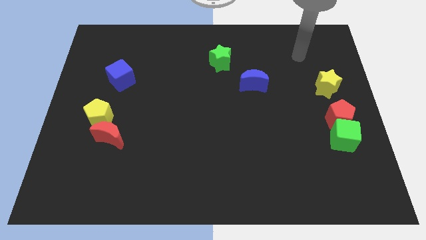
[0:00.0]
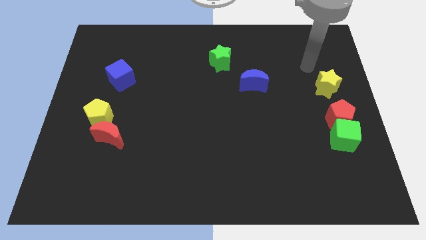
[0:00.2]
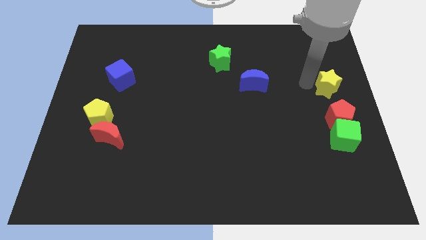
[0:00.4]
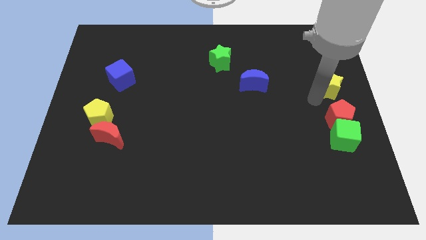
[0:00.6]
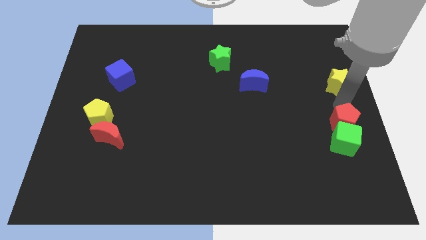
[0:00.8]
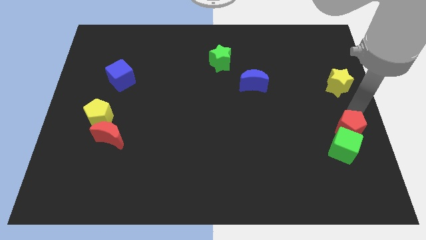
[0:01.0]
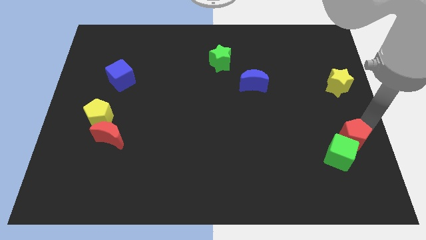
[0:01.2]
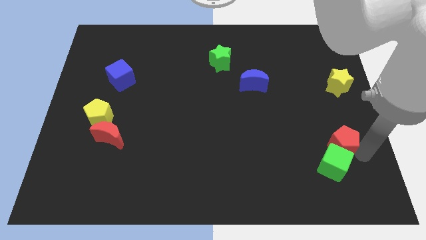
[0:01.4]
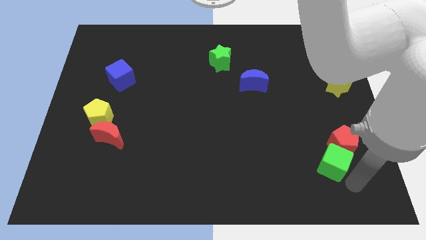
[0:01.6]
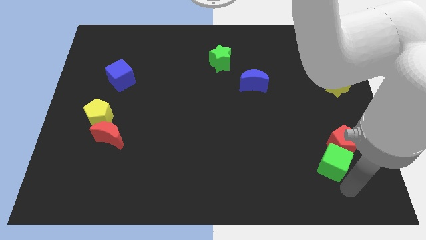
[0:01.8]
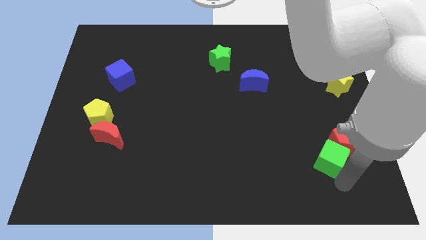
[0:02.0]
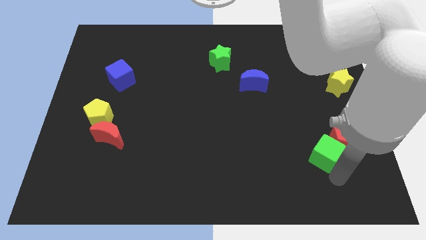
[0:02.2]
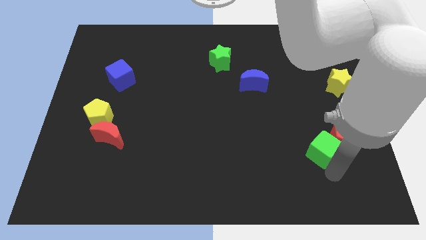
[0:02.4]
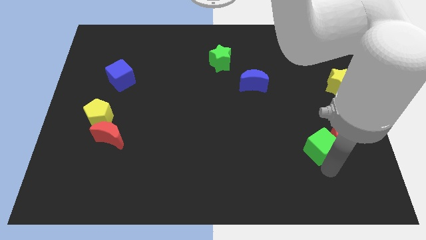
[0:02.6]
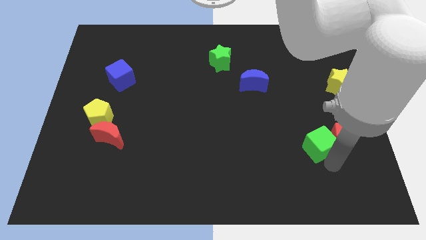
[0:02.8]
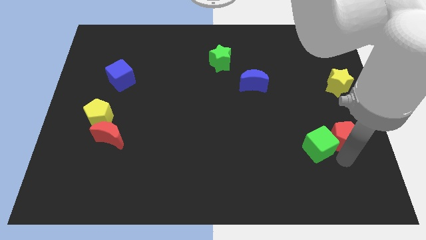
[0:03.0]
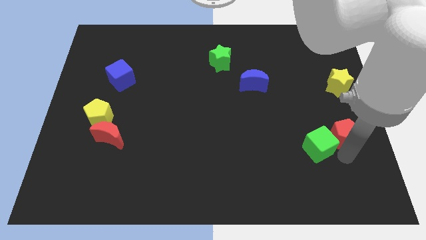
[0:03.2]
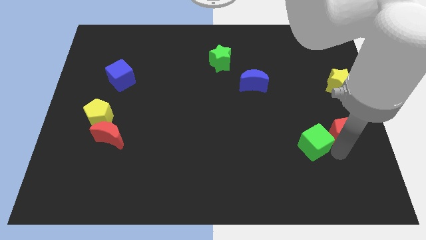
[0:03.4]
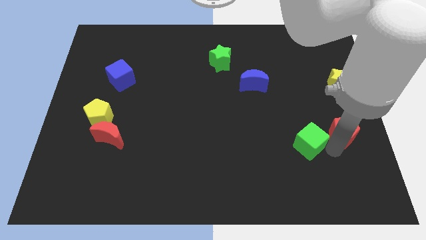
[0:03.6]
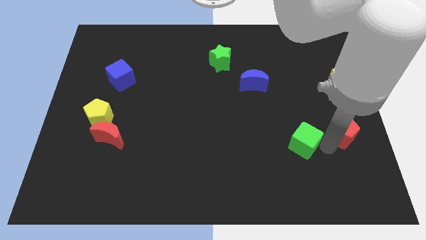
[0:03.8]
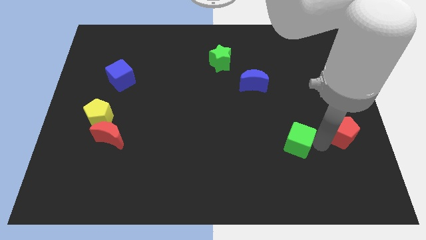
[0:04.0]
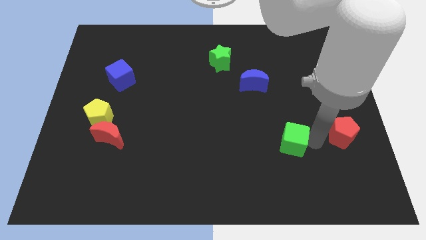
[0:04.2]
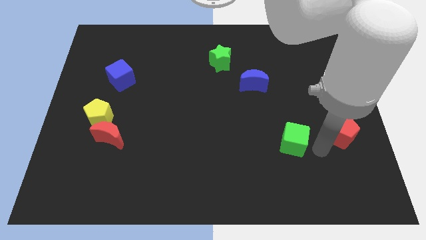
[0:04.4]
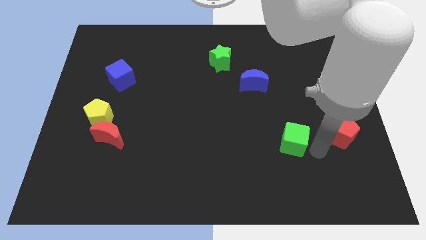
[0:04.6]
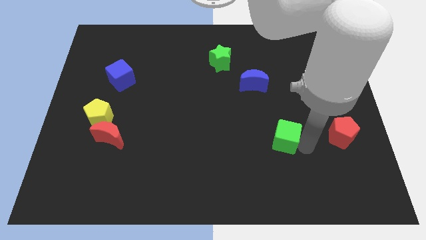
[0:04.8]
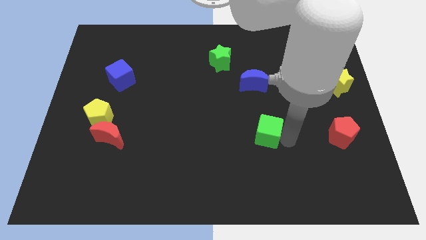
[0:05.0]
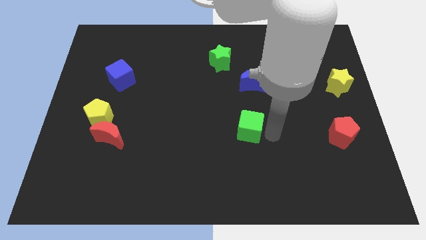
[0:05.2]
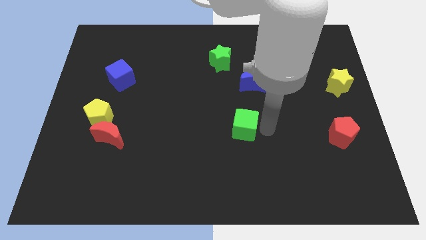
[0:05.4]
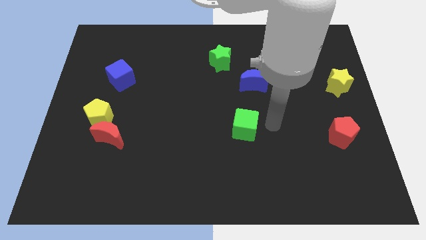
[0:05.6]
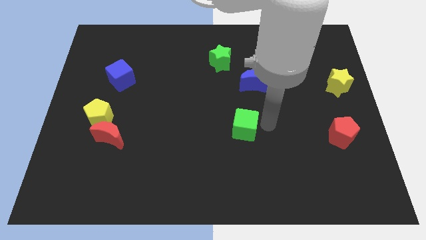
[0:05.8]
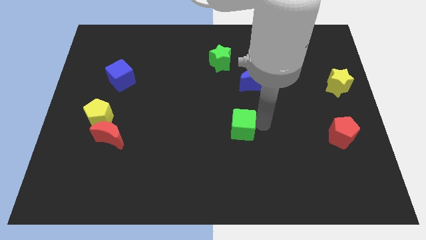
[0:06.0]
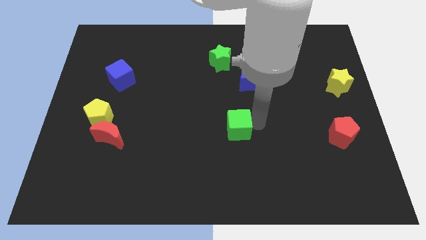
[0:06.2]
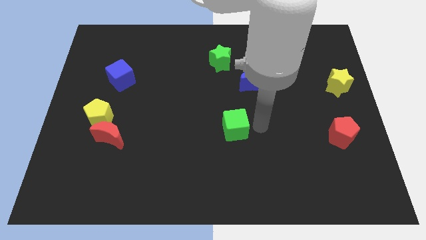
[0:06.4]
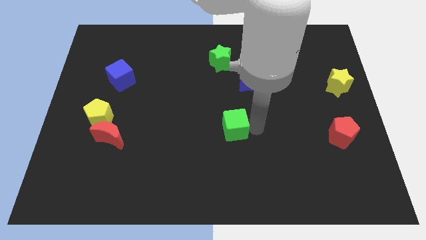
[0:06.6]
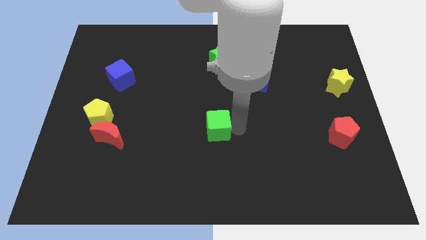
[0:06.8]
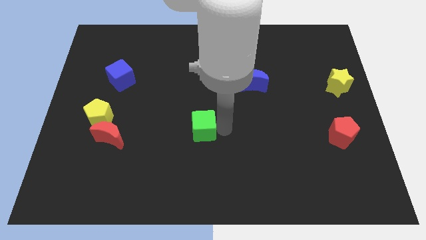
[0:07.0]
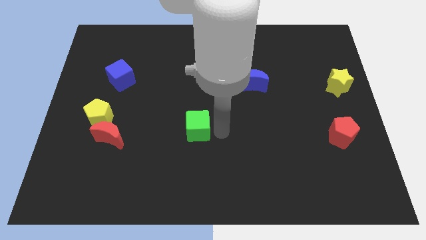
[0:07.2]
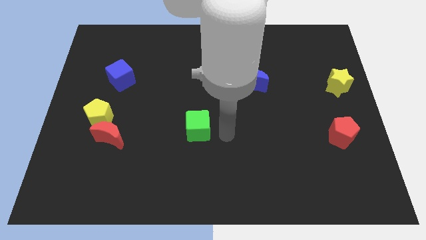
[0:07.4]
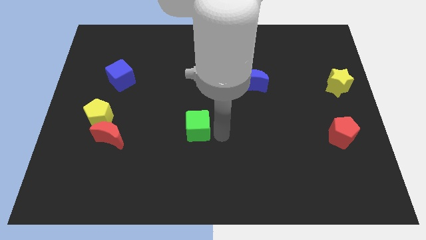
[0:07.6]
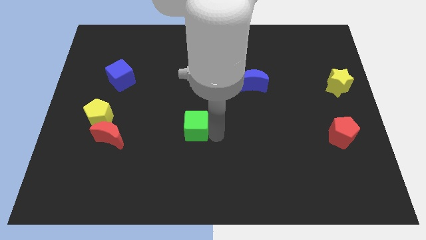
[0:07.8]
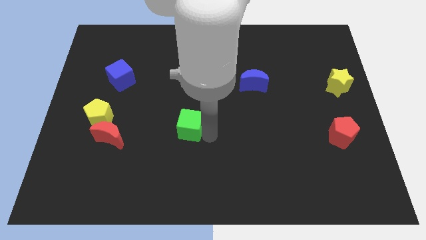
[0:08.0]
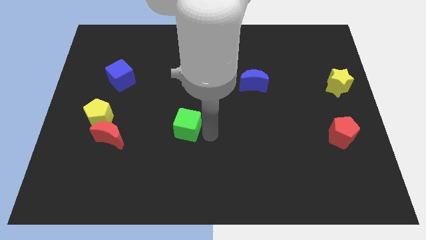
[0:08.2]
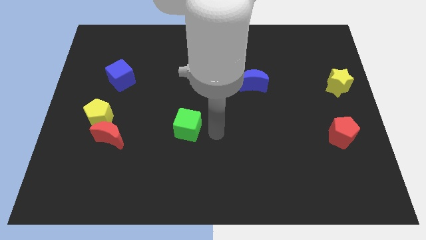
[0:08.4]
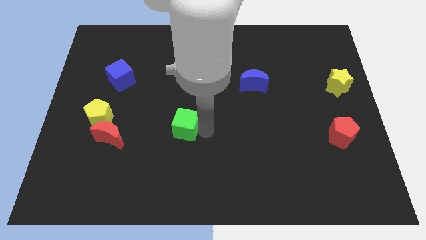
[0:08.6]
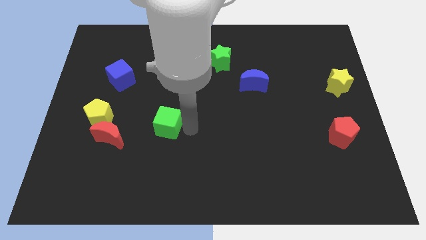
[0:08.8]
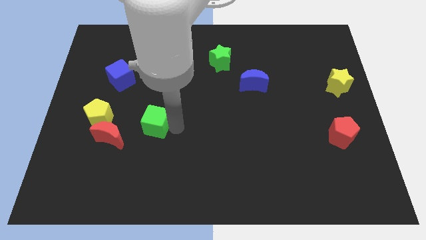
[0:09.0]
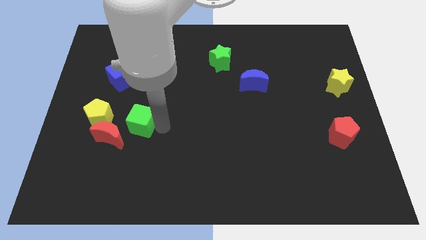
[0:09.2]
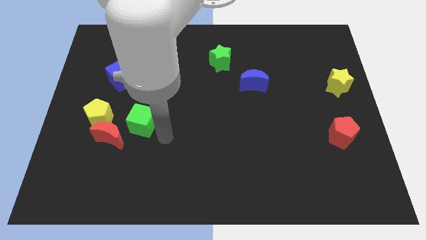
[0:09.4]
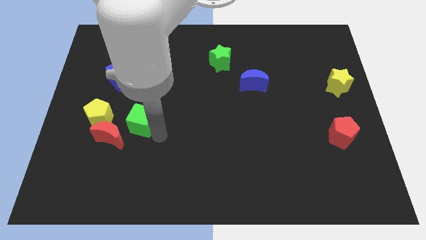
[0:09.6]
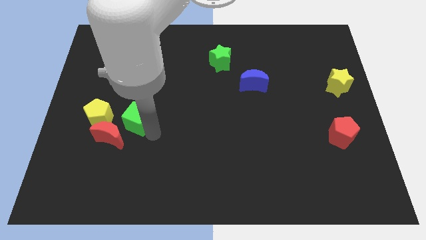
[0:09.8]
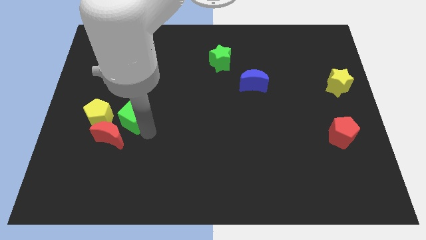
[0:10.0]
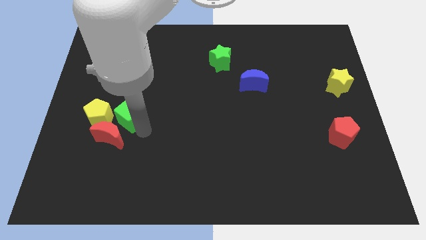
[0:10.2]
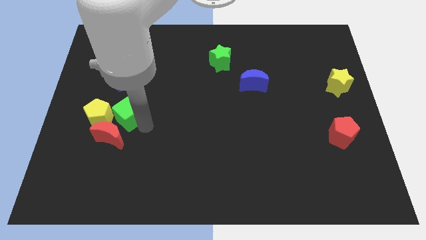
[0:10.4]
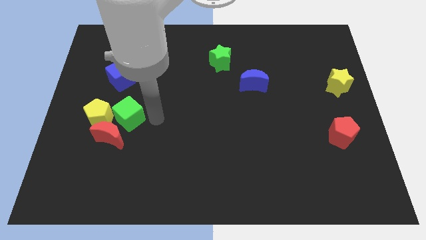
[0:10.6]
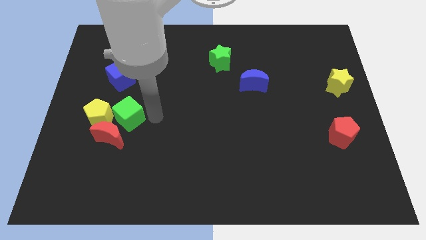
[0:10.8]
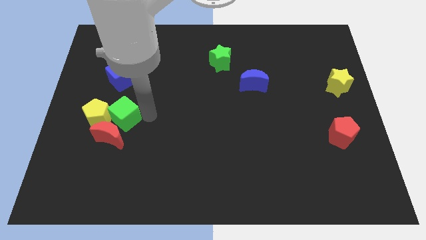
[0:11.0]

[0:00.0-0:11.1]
put the green cube close to the yellow pentagon

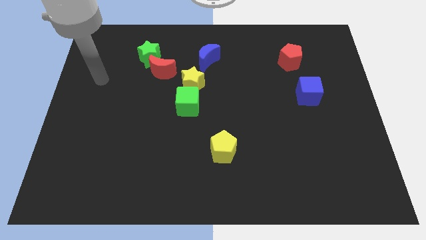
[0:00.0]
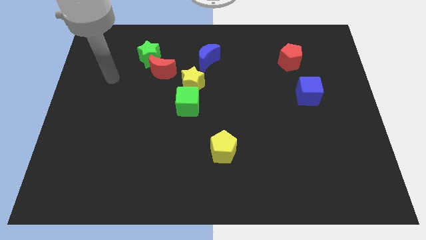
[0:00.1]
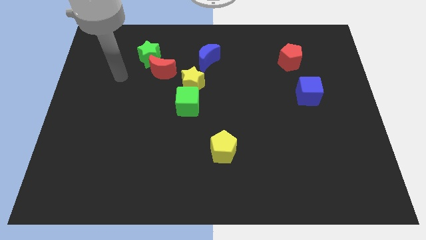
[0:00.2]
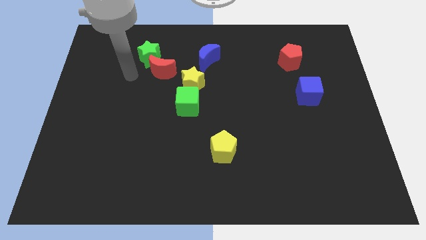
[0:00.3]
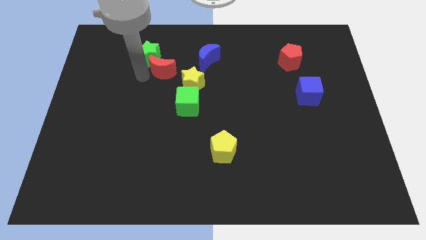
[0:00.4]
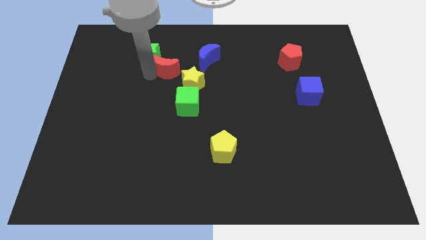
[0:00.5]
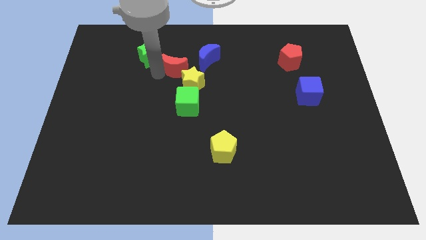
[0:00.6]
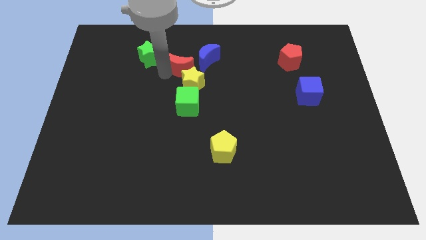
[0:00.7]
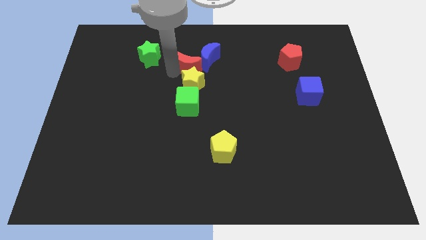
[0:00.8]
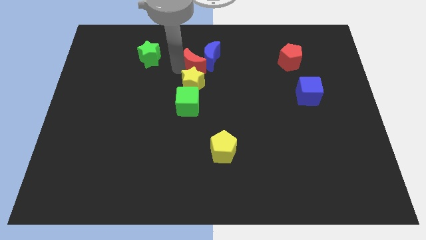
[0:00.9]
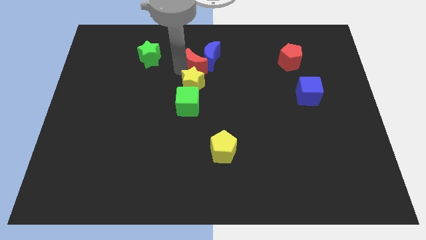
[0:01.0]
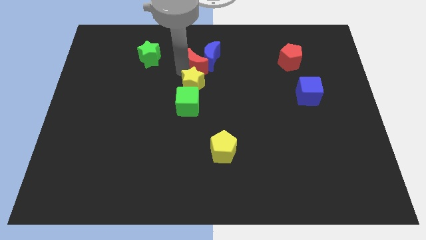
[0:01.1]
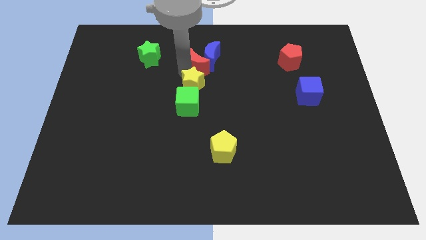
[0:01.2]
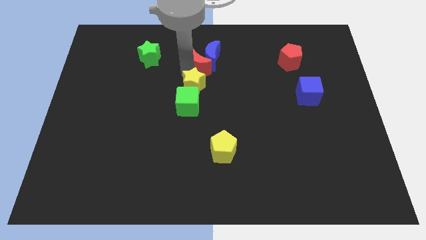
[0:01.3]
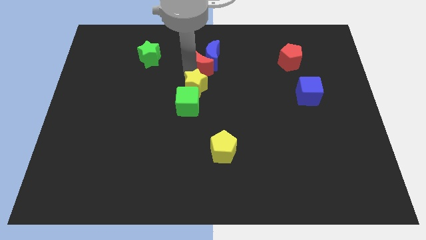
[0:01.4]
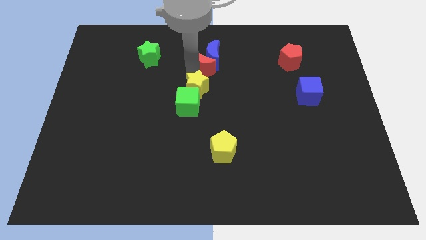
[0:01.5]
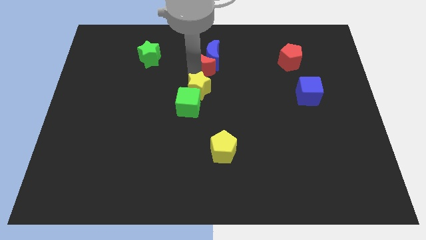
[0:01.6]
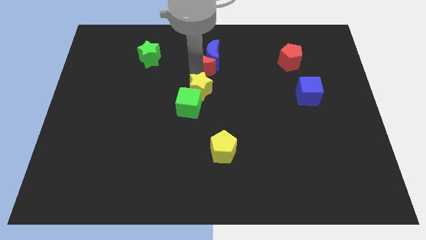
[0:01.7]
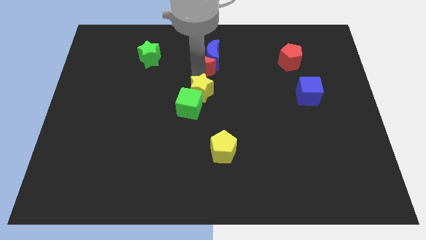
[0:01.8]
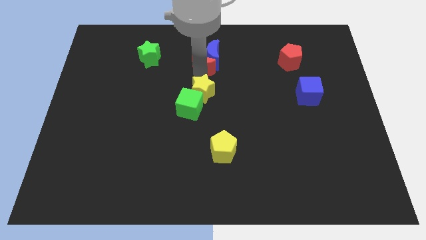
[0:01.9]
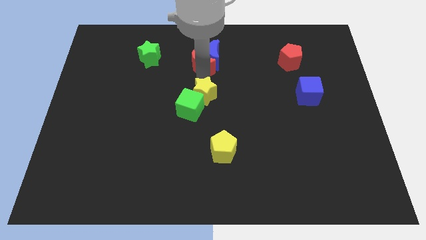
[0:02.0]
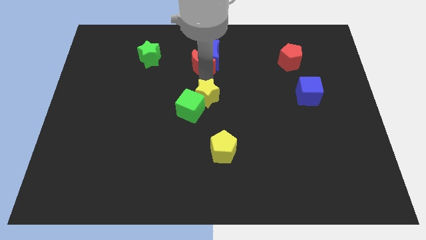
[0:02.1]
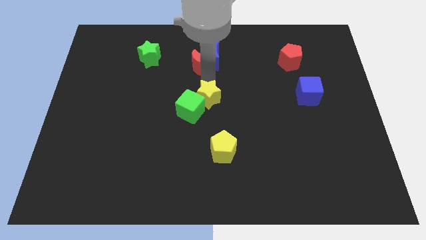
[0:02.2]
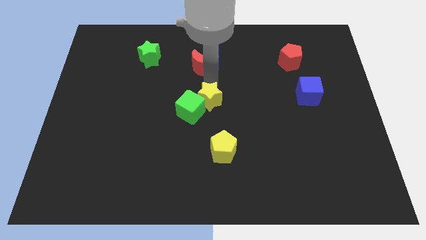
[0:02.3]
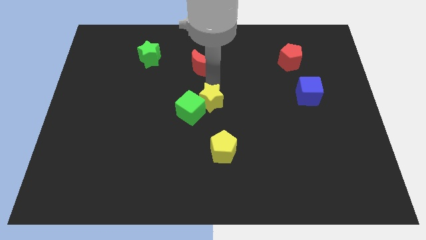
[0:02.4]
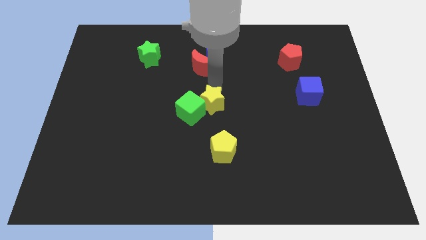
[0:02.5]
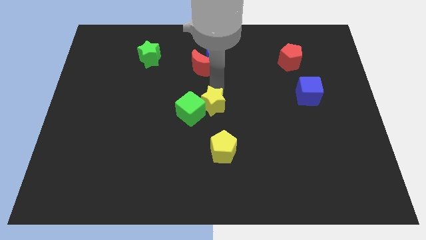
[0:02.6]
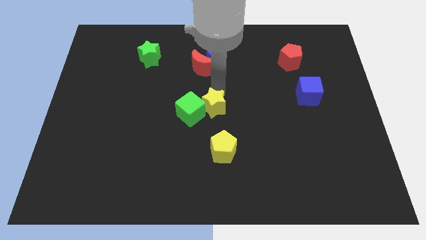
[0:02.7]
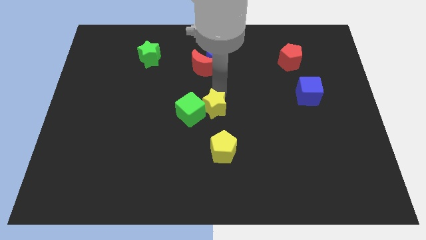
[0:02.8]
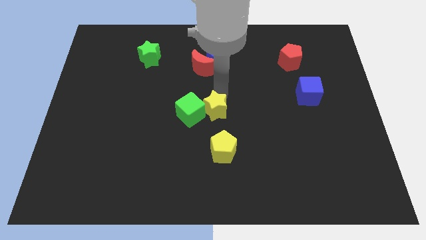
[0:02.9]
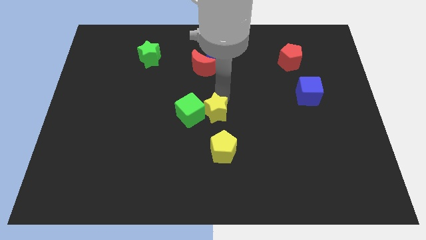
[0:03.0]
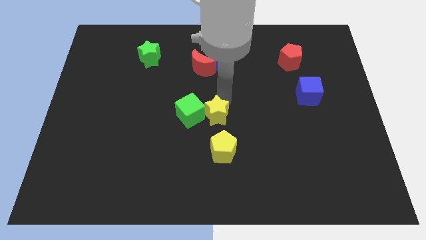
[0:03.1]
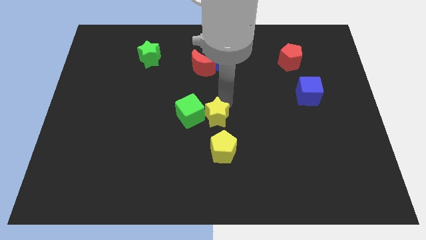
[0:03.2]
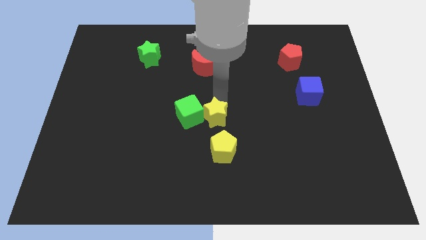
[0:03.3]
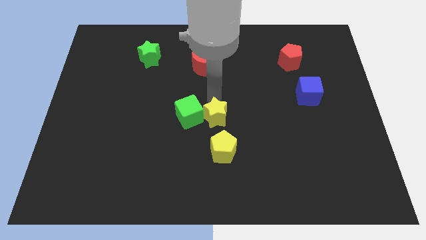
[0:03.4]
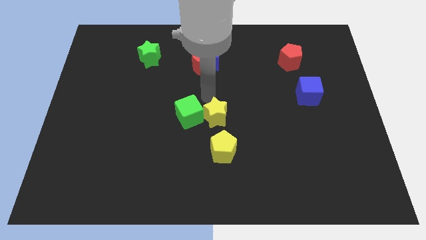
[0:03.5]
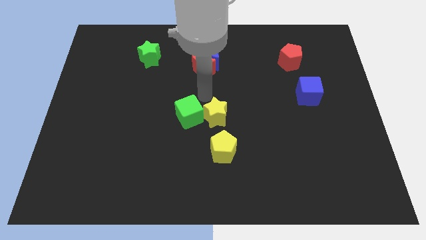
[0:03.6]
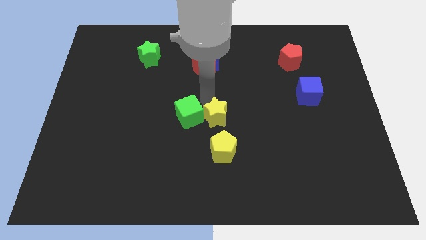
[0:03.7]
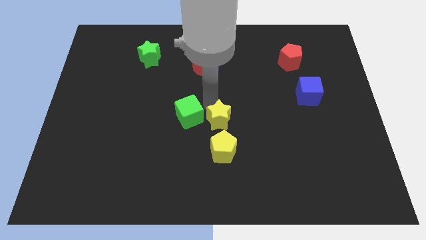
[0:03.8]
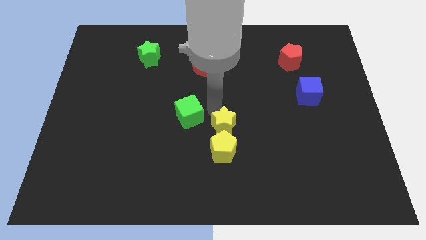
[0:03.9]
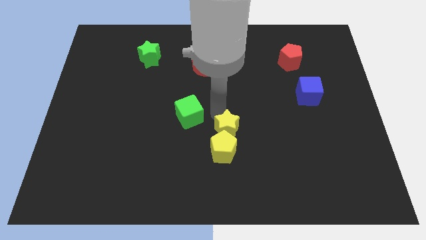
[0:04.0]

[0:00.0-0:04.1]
move the yellow star towards the yellow pentagon
